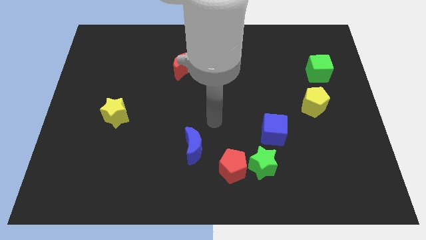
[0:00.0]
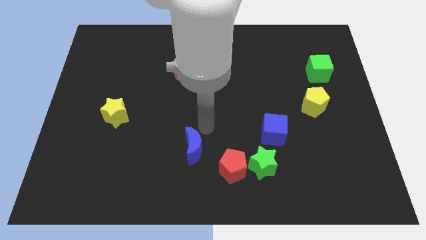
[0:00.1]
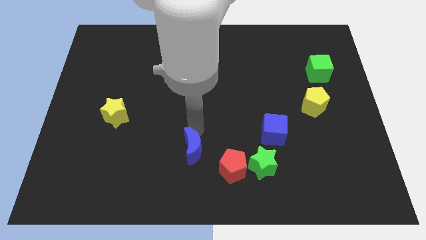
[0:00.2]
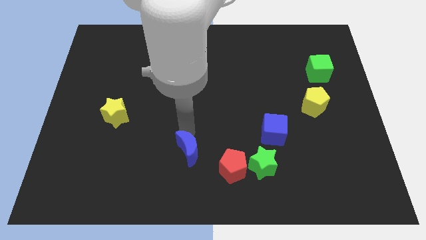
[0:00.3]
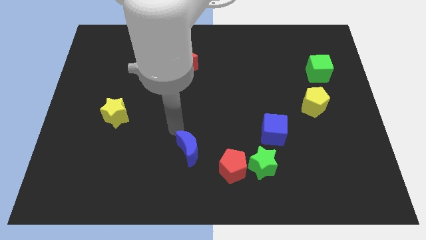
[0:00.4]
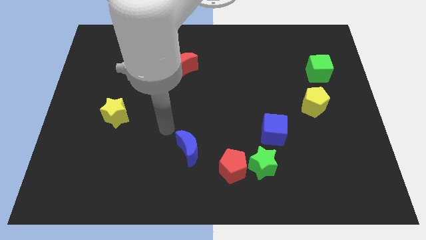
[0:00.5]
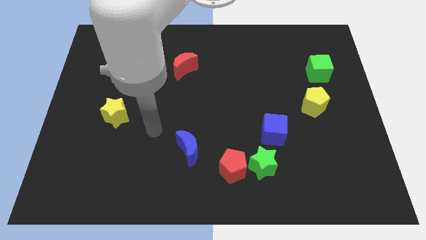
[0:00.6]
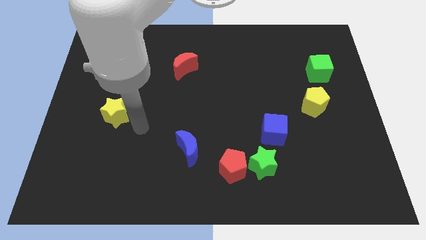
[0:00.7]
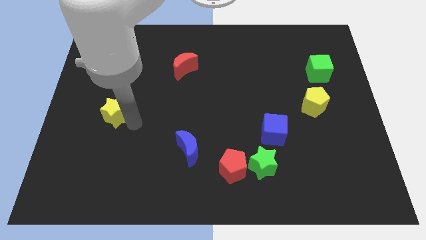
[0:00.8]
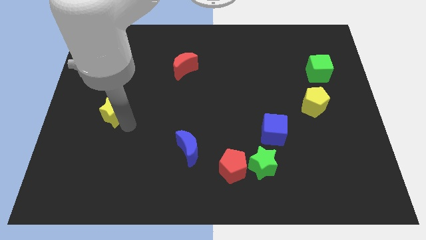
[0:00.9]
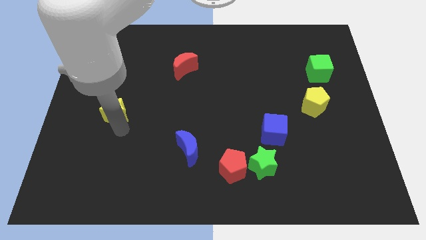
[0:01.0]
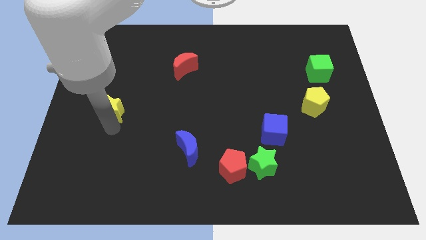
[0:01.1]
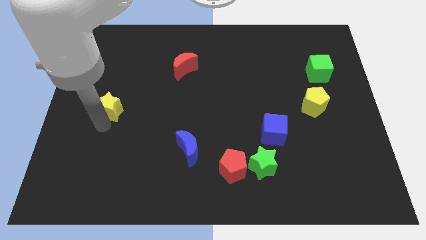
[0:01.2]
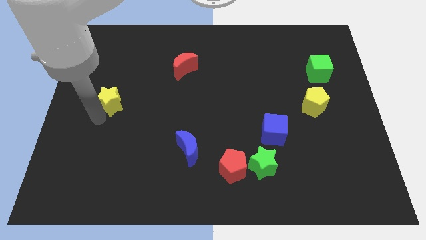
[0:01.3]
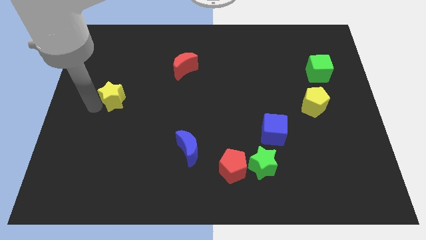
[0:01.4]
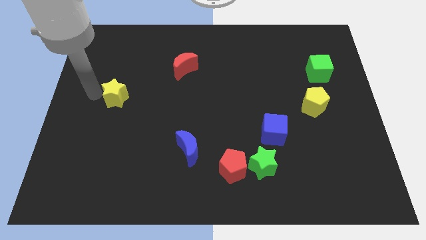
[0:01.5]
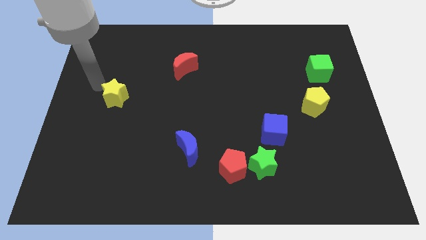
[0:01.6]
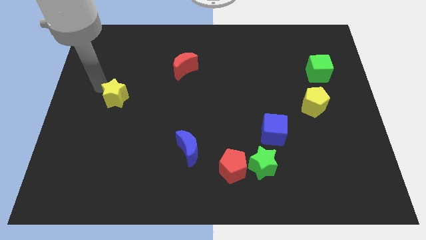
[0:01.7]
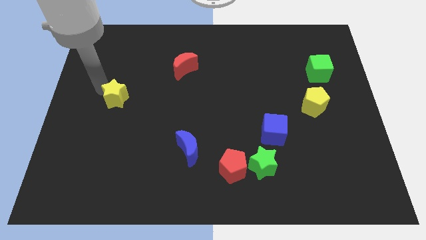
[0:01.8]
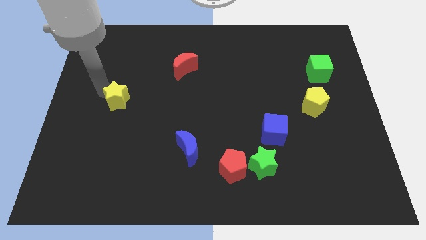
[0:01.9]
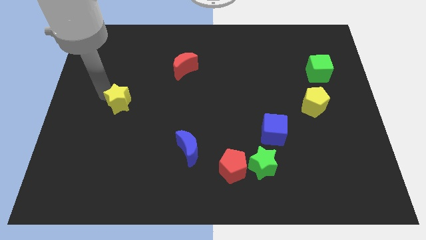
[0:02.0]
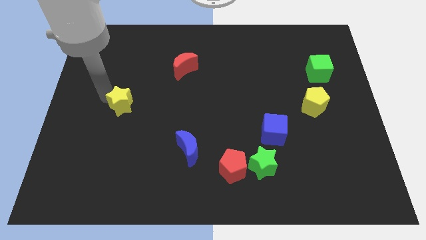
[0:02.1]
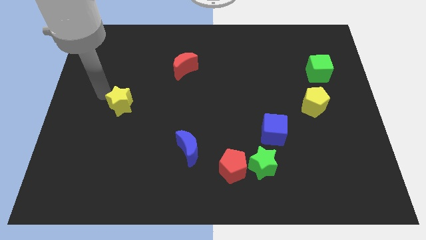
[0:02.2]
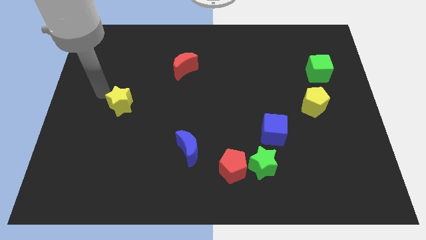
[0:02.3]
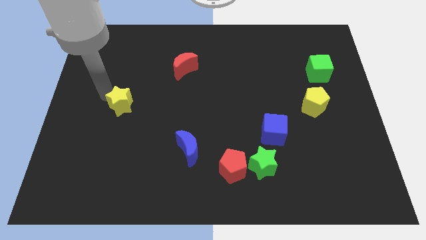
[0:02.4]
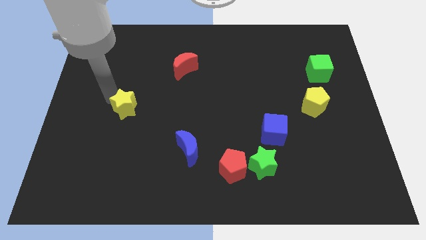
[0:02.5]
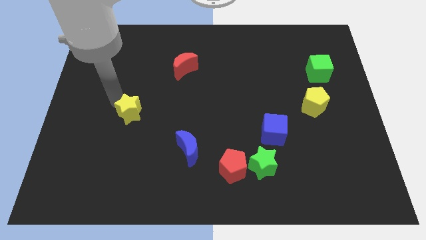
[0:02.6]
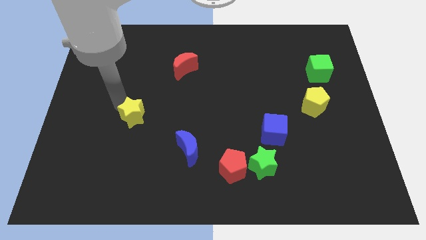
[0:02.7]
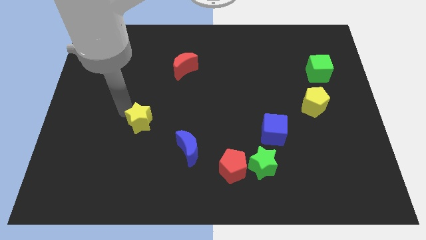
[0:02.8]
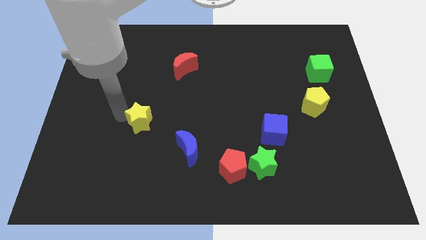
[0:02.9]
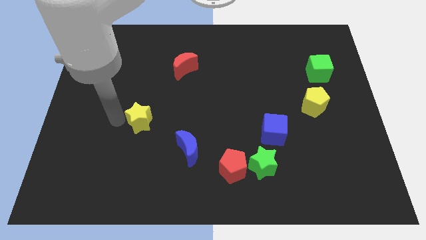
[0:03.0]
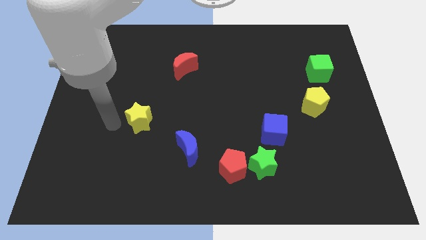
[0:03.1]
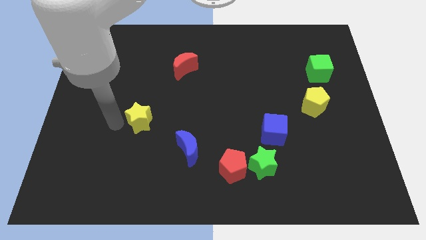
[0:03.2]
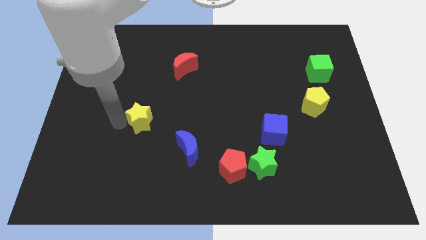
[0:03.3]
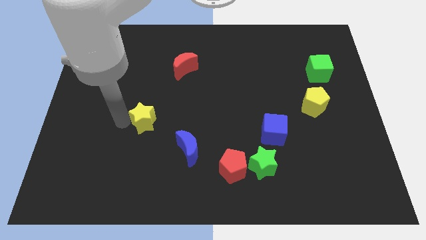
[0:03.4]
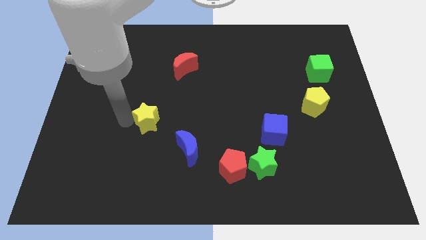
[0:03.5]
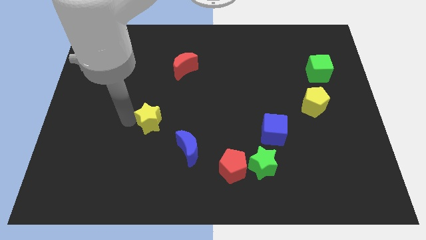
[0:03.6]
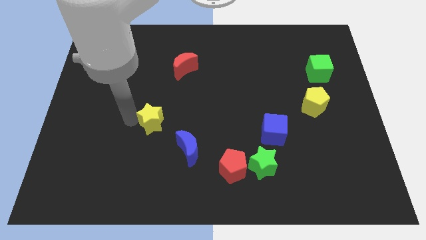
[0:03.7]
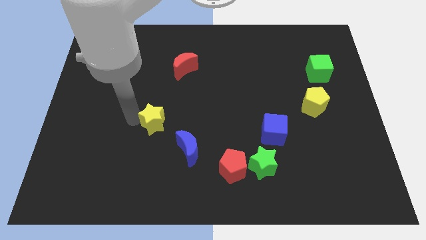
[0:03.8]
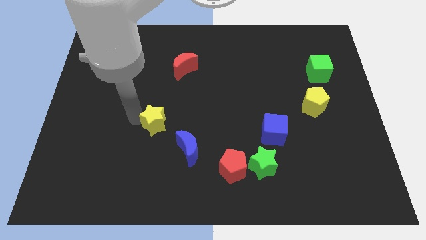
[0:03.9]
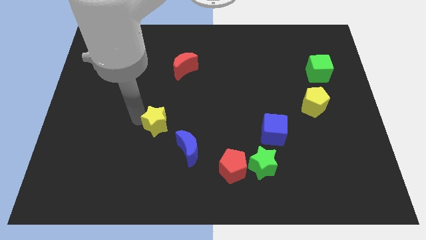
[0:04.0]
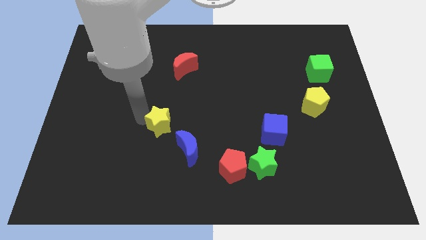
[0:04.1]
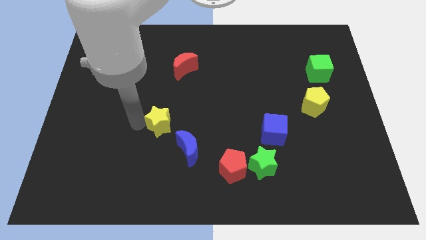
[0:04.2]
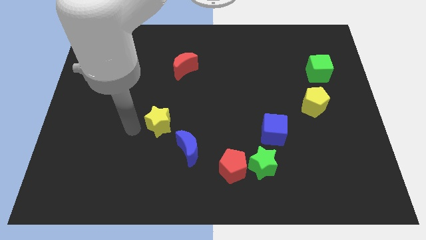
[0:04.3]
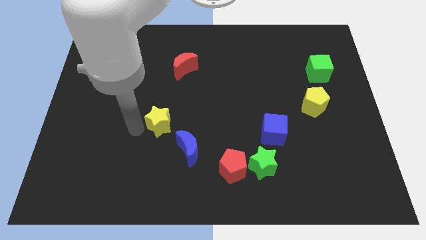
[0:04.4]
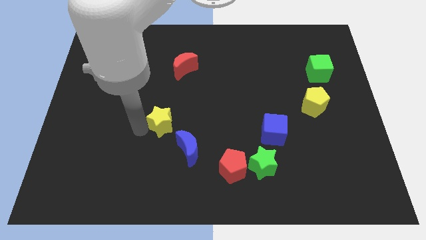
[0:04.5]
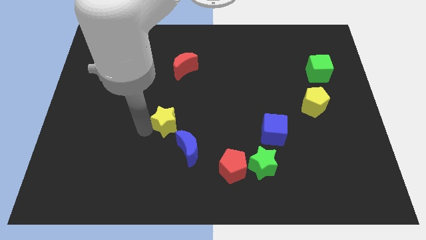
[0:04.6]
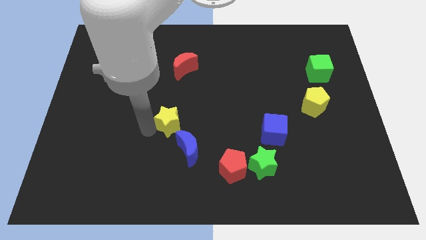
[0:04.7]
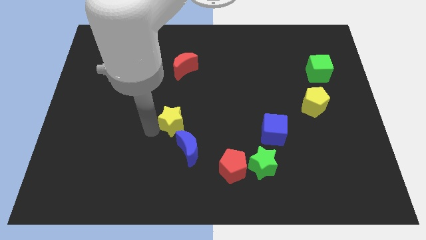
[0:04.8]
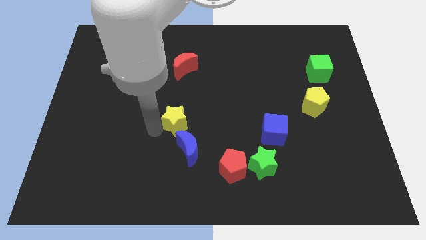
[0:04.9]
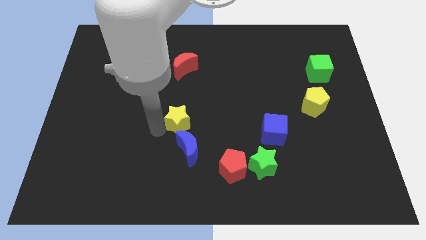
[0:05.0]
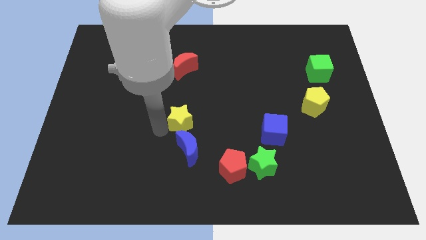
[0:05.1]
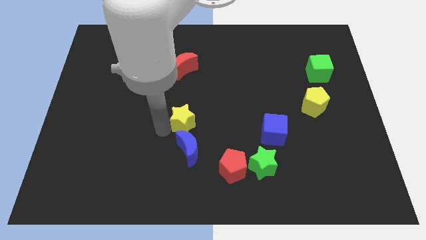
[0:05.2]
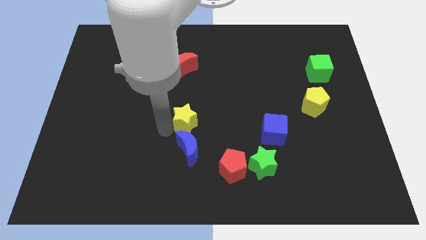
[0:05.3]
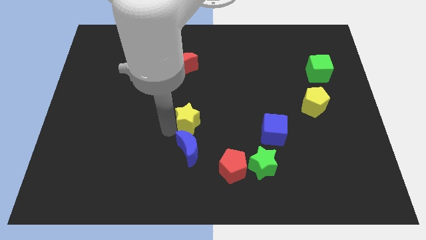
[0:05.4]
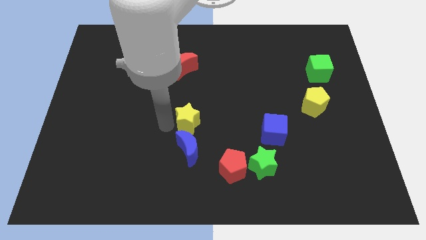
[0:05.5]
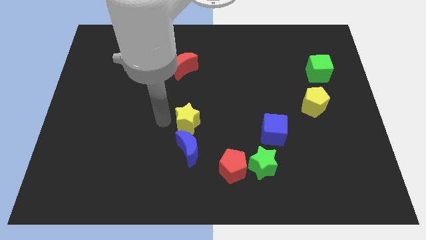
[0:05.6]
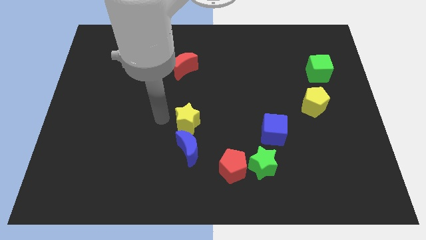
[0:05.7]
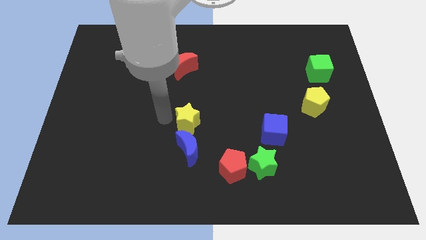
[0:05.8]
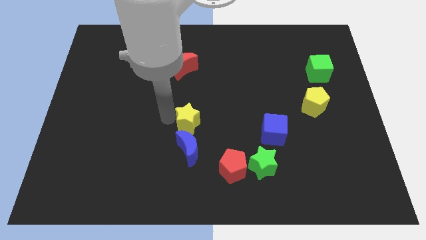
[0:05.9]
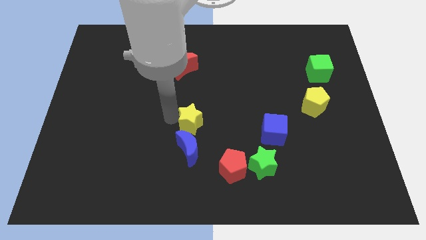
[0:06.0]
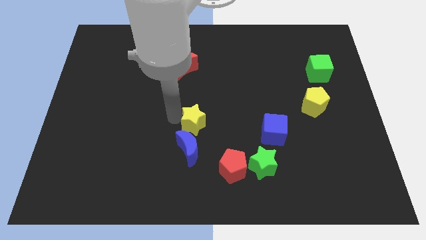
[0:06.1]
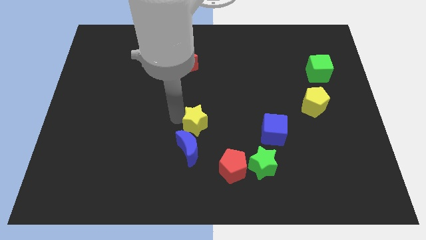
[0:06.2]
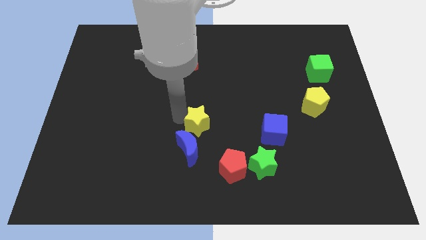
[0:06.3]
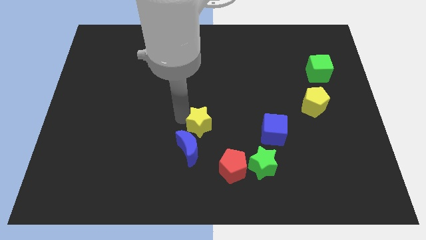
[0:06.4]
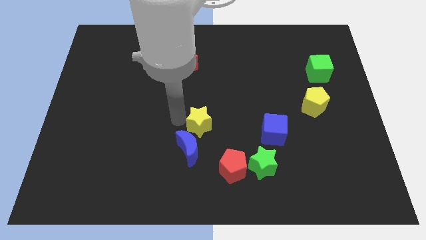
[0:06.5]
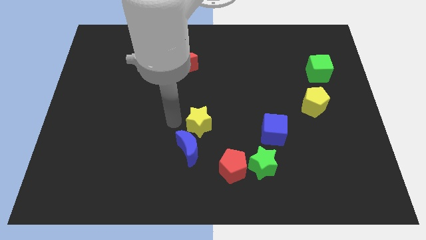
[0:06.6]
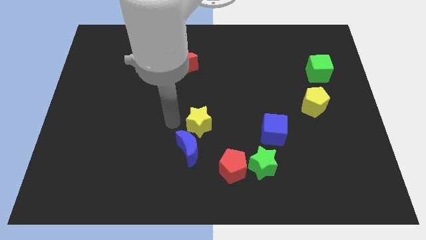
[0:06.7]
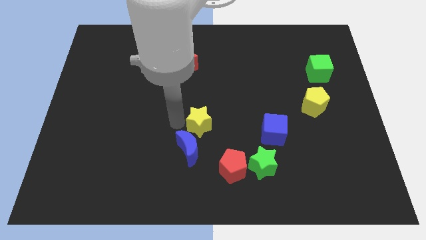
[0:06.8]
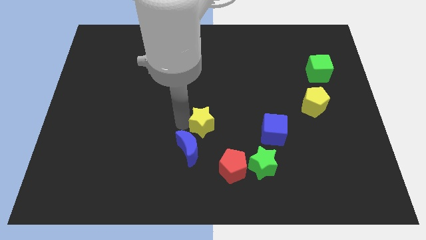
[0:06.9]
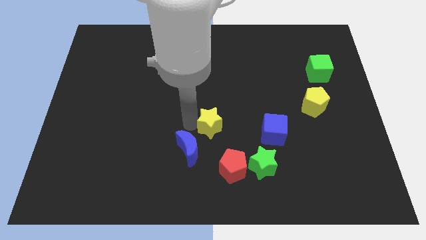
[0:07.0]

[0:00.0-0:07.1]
put the yellow star to the top of the red pentagon

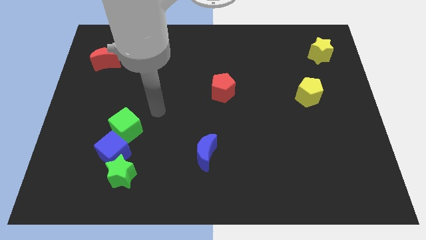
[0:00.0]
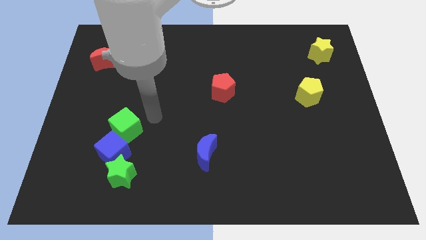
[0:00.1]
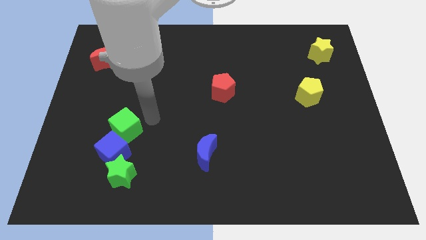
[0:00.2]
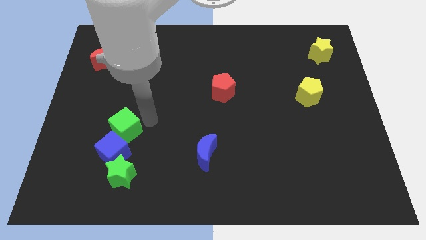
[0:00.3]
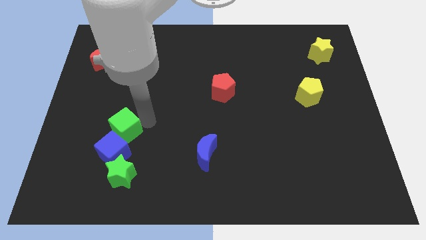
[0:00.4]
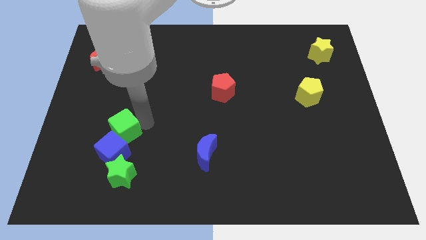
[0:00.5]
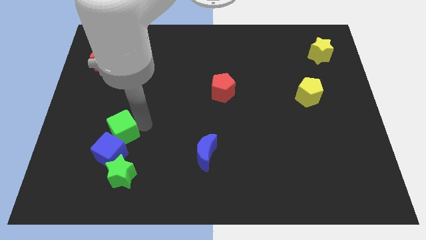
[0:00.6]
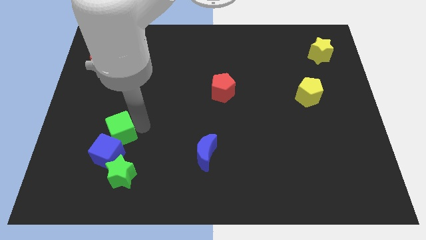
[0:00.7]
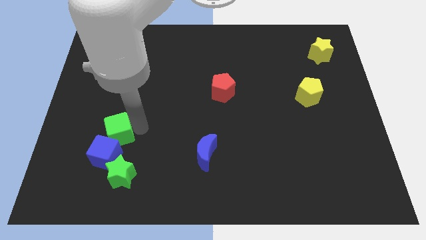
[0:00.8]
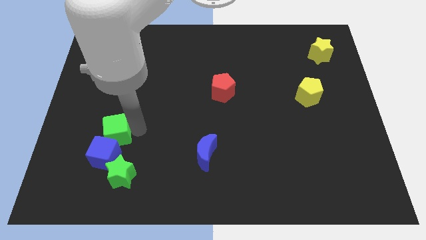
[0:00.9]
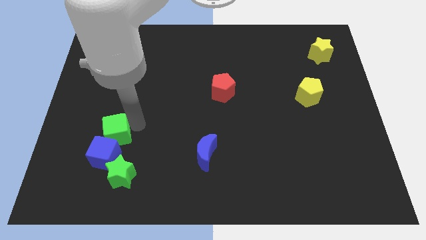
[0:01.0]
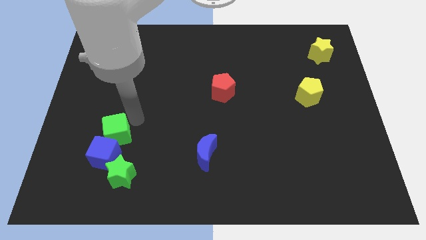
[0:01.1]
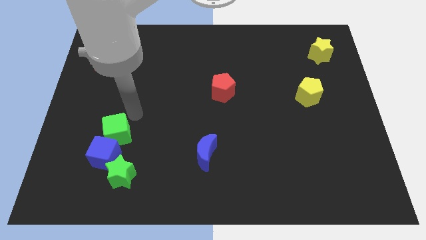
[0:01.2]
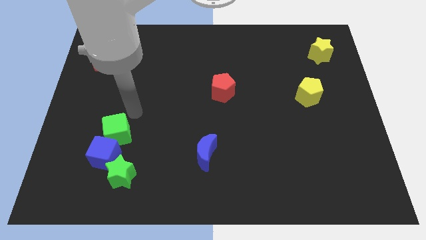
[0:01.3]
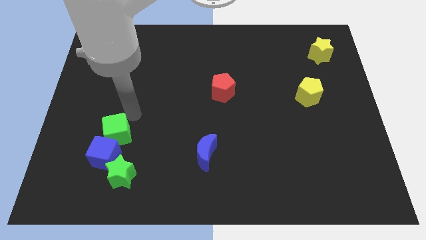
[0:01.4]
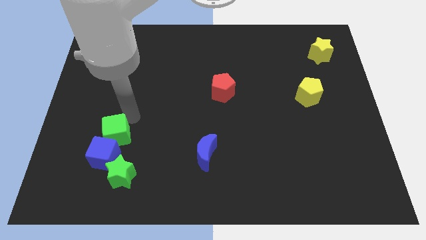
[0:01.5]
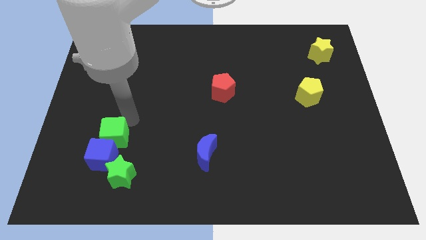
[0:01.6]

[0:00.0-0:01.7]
push the green cube to the top left of the green star
